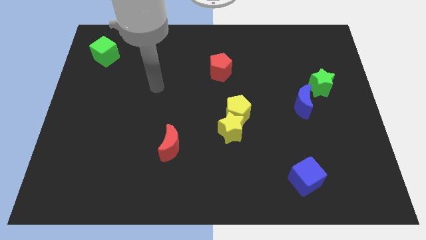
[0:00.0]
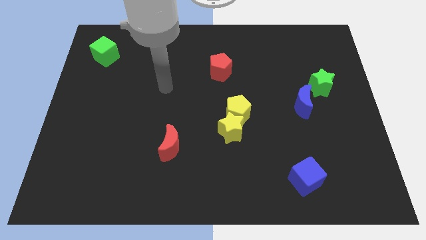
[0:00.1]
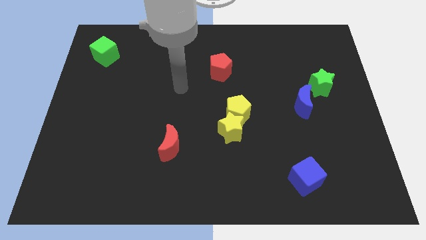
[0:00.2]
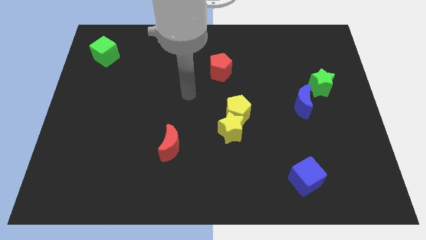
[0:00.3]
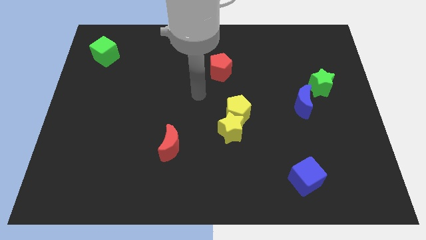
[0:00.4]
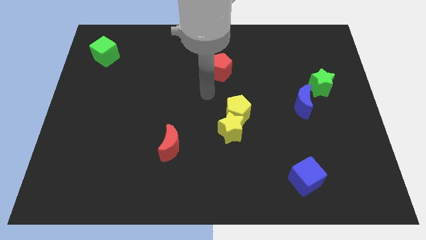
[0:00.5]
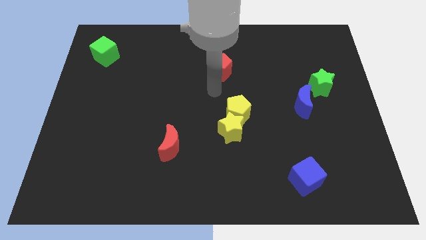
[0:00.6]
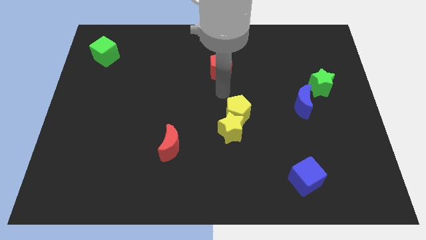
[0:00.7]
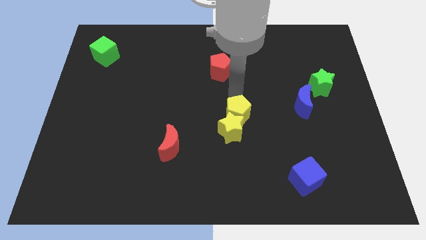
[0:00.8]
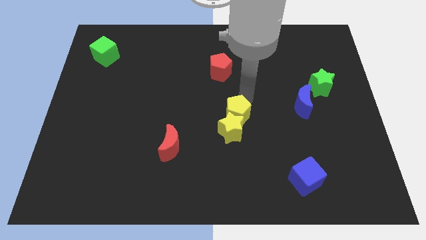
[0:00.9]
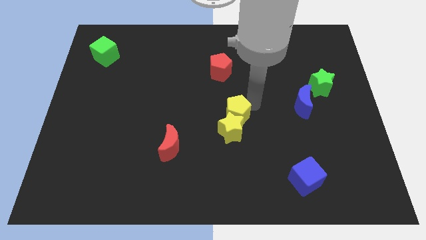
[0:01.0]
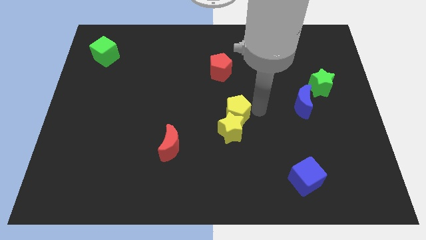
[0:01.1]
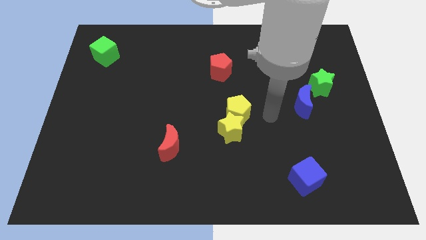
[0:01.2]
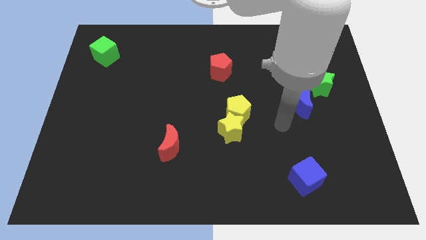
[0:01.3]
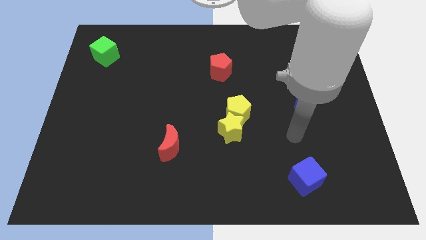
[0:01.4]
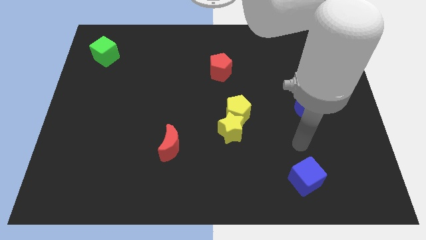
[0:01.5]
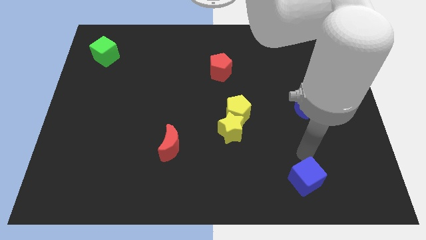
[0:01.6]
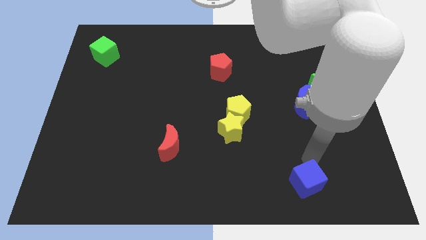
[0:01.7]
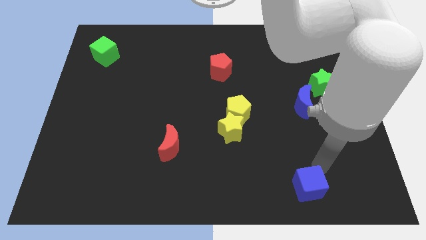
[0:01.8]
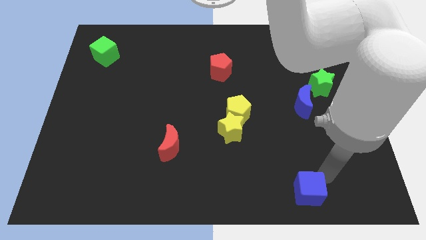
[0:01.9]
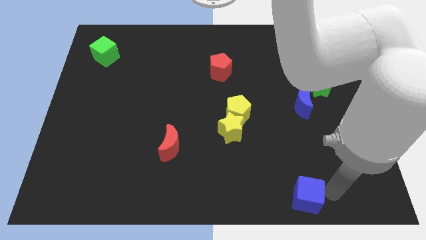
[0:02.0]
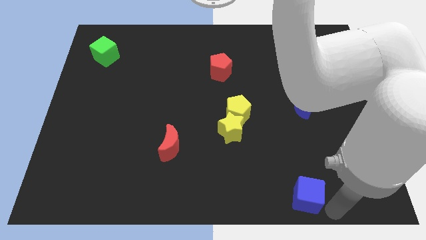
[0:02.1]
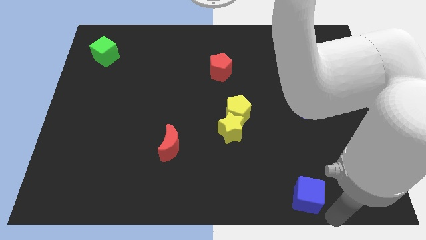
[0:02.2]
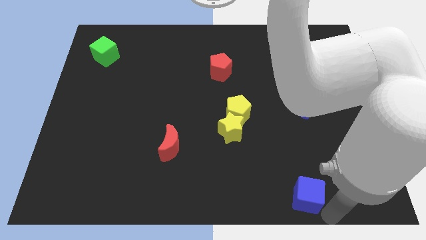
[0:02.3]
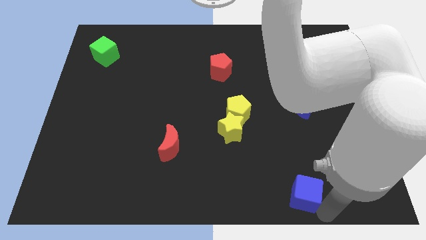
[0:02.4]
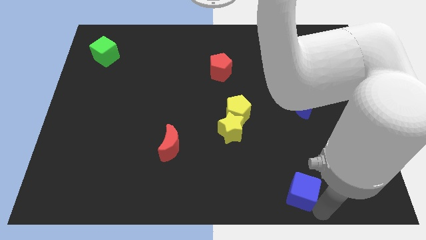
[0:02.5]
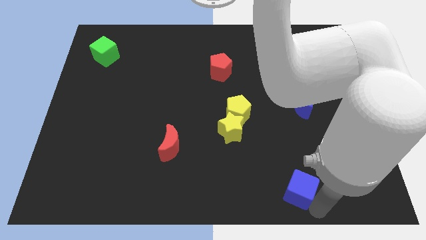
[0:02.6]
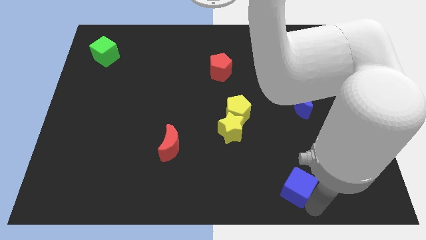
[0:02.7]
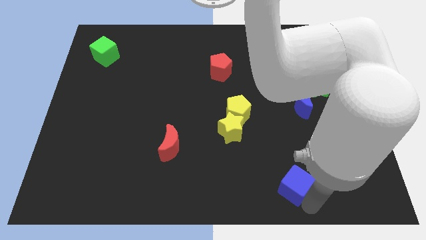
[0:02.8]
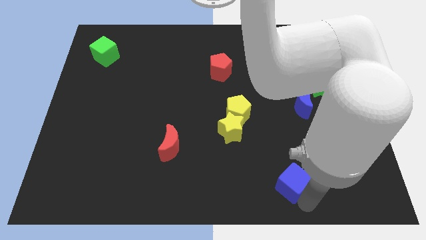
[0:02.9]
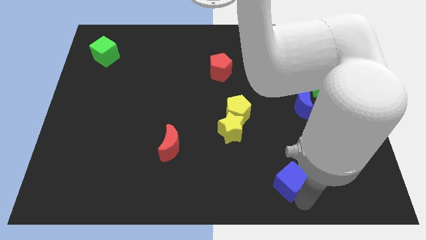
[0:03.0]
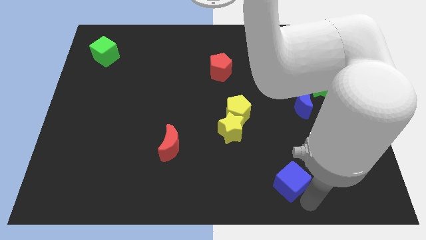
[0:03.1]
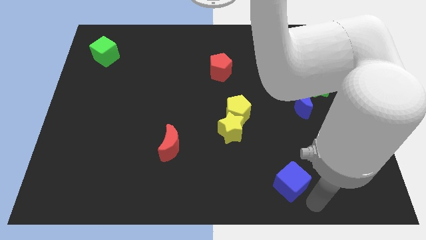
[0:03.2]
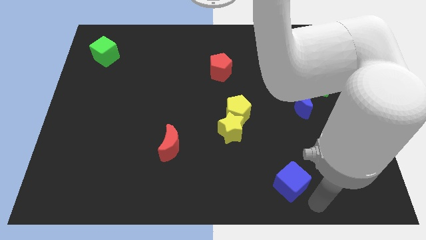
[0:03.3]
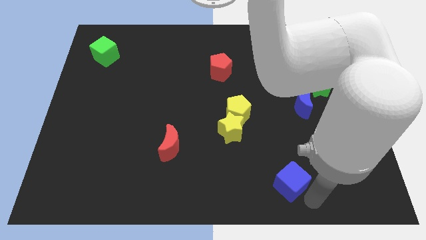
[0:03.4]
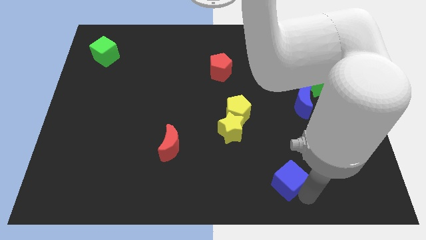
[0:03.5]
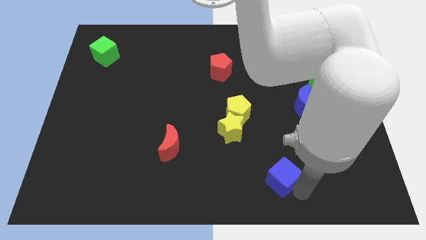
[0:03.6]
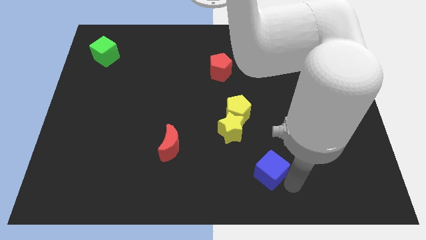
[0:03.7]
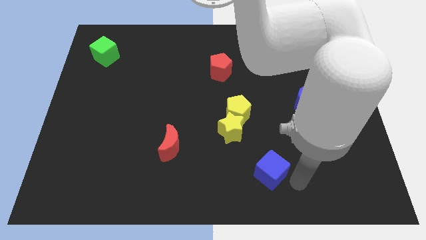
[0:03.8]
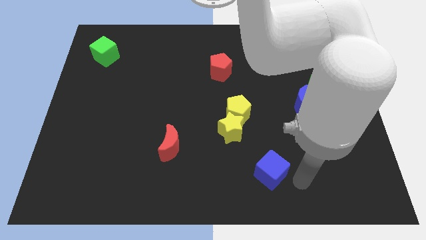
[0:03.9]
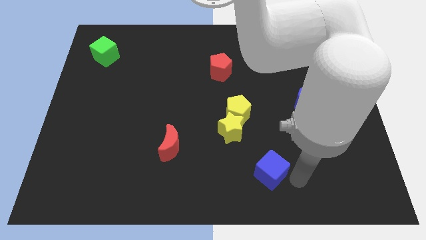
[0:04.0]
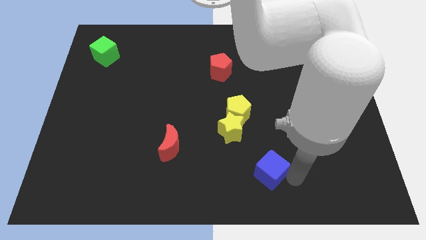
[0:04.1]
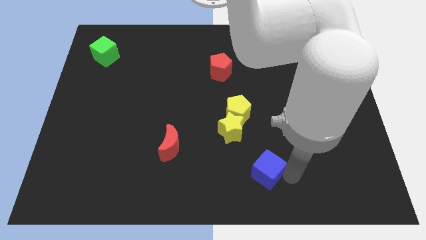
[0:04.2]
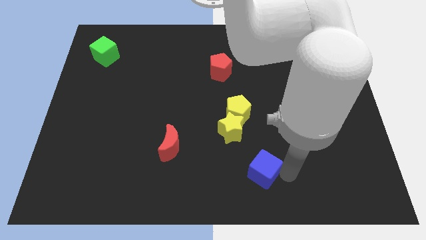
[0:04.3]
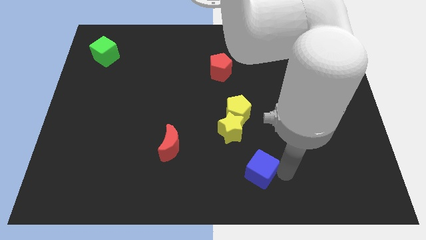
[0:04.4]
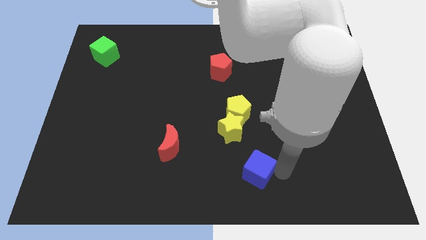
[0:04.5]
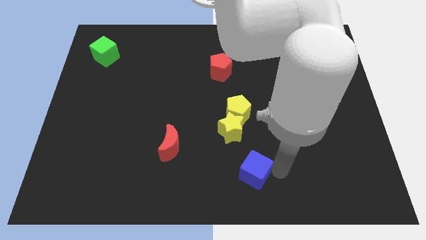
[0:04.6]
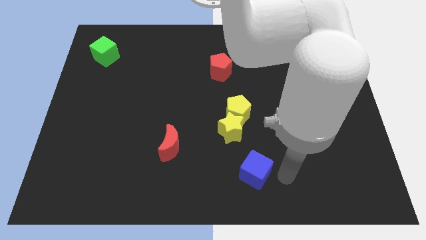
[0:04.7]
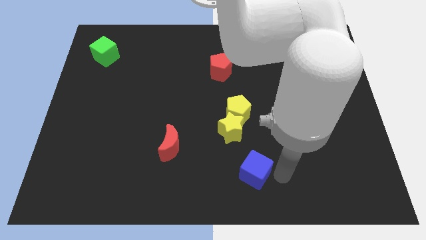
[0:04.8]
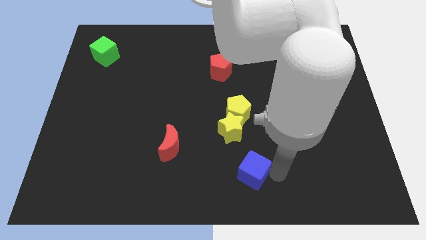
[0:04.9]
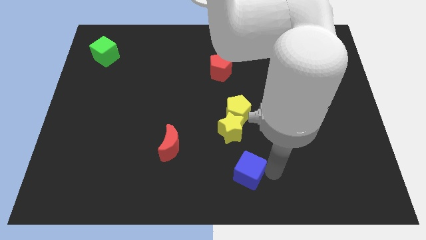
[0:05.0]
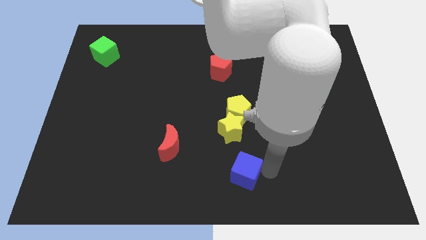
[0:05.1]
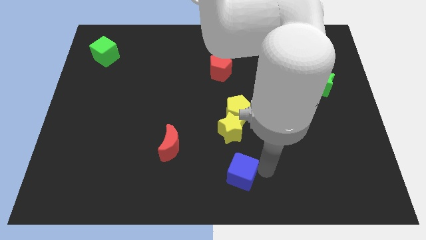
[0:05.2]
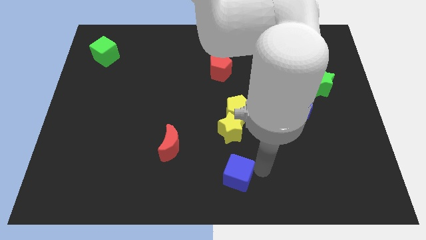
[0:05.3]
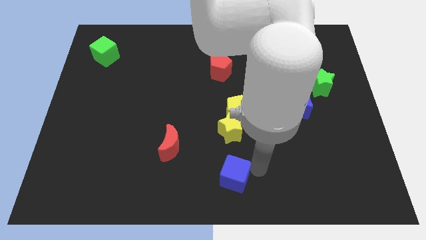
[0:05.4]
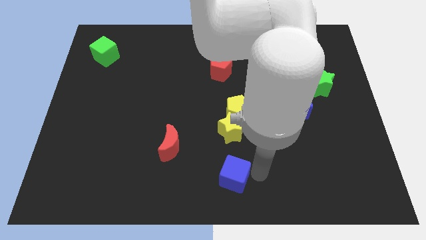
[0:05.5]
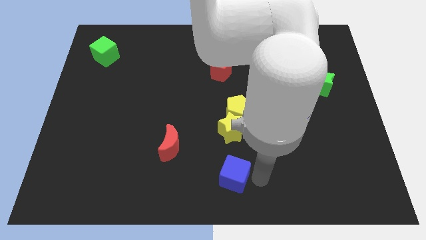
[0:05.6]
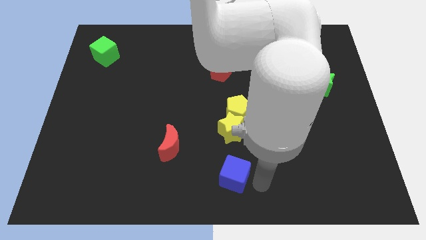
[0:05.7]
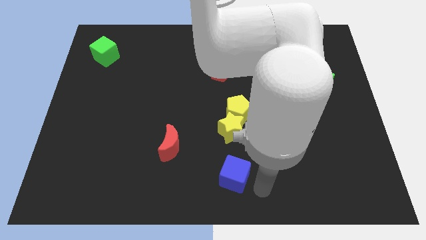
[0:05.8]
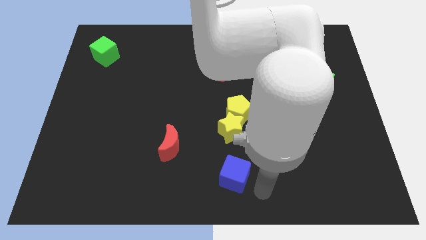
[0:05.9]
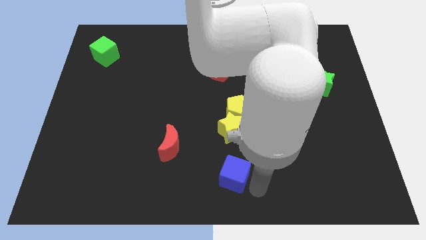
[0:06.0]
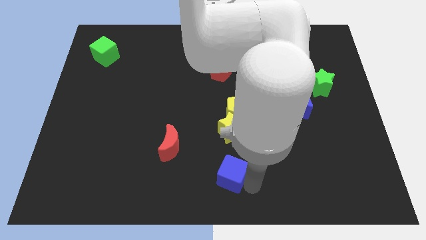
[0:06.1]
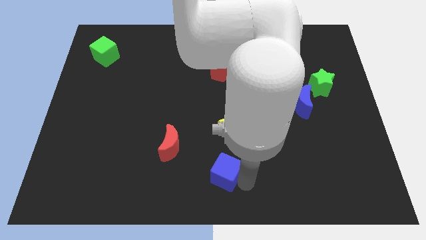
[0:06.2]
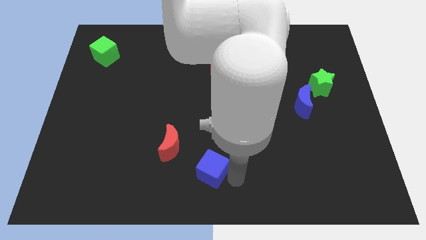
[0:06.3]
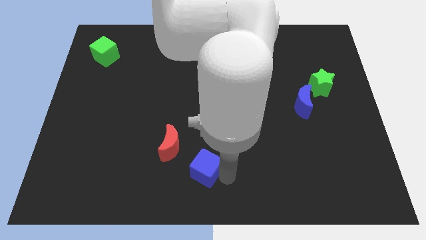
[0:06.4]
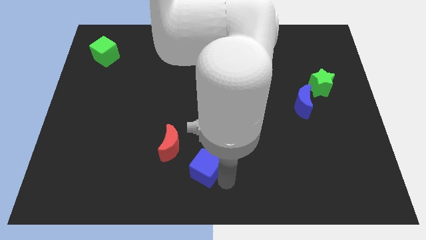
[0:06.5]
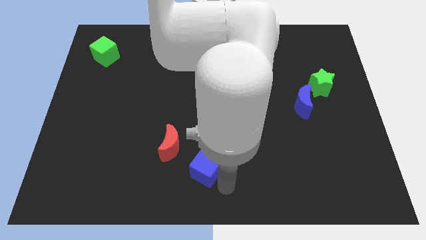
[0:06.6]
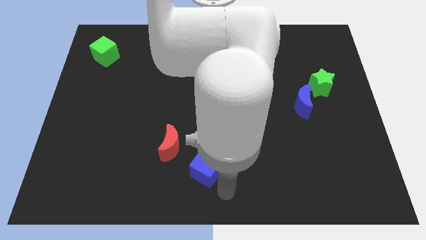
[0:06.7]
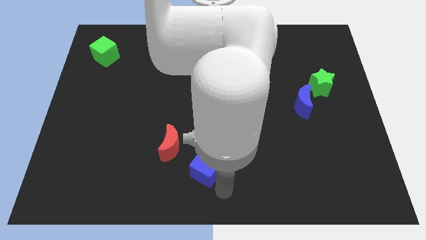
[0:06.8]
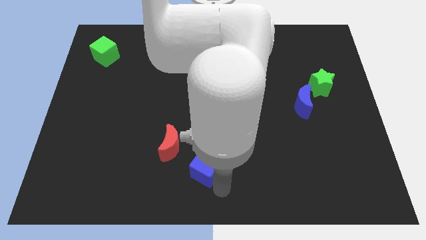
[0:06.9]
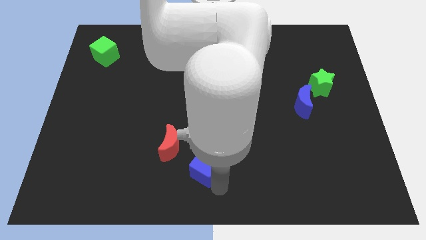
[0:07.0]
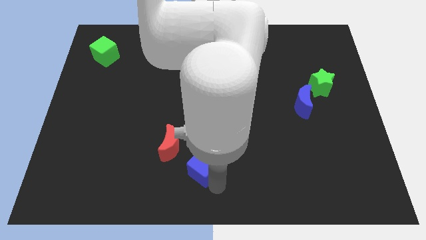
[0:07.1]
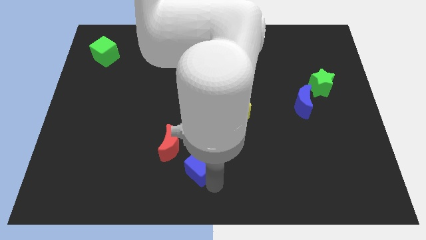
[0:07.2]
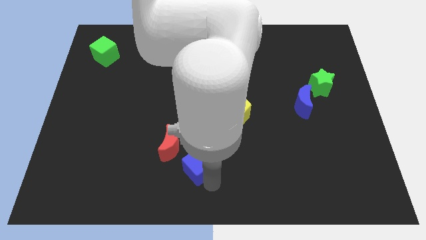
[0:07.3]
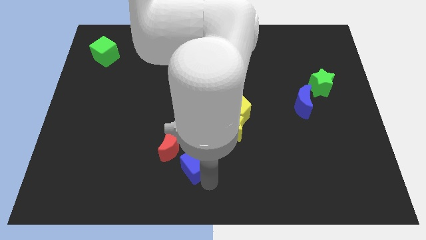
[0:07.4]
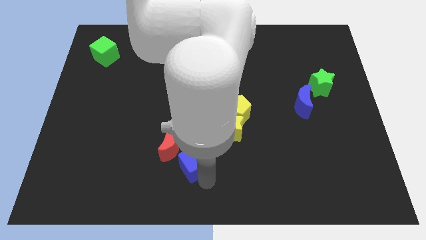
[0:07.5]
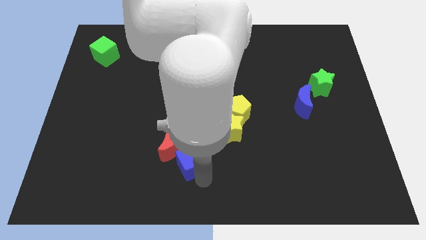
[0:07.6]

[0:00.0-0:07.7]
move the blue cube to the red moon

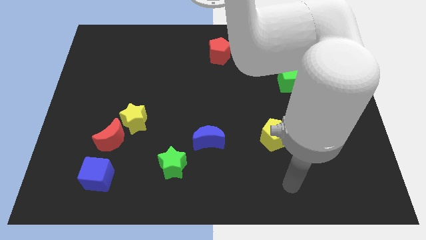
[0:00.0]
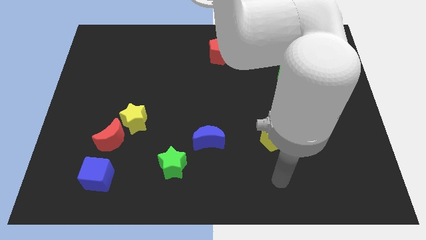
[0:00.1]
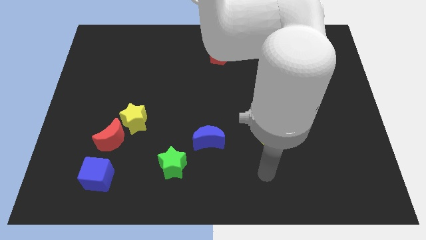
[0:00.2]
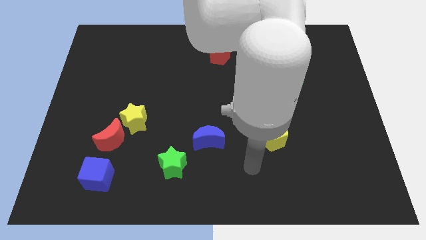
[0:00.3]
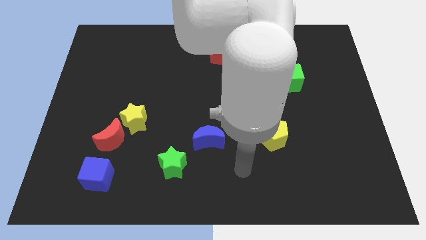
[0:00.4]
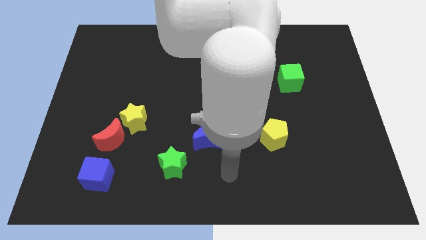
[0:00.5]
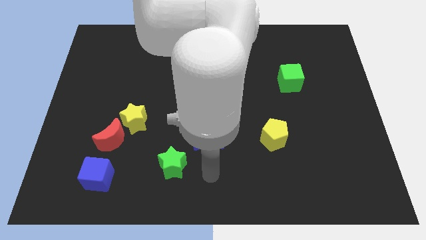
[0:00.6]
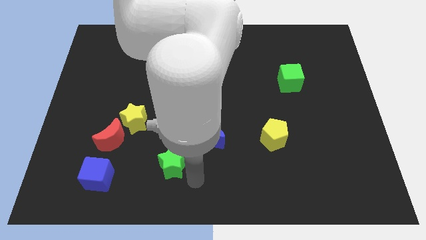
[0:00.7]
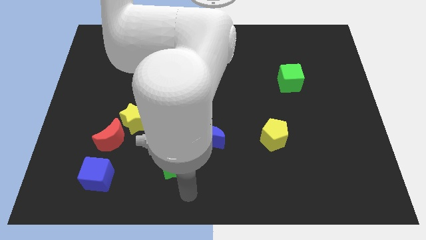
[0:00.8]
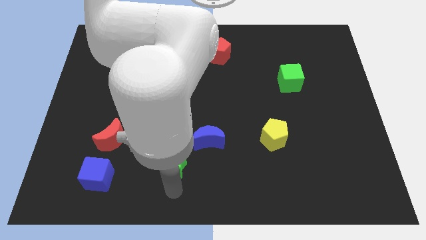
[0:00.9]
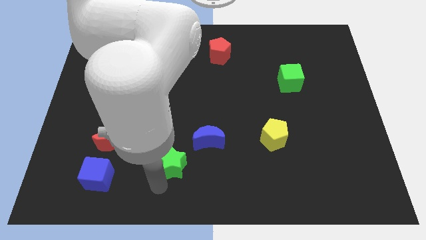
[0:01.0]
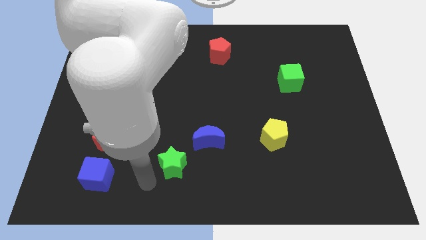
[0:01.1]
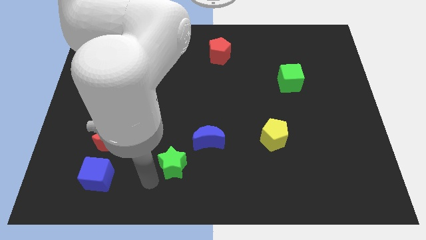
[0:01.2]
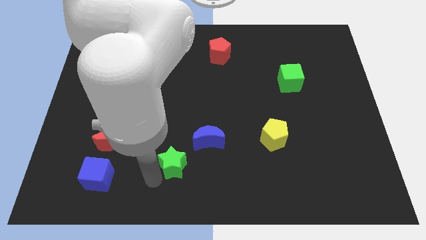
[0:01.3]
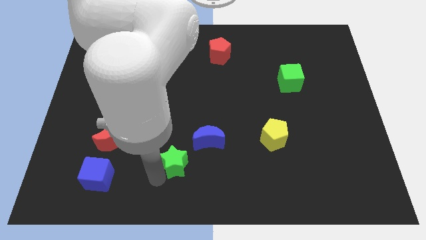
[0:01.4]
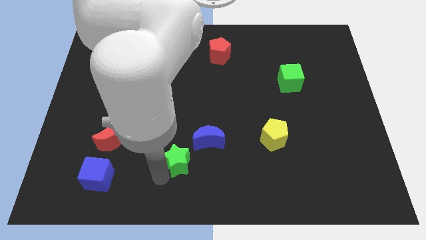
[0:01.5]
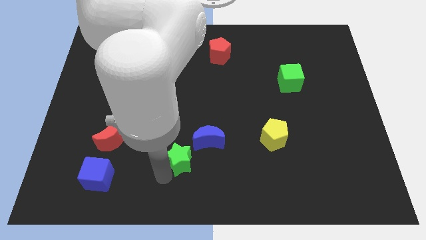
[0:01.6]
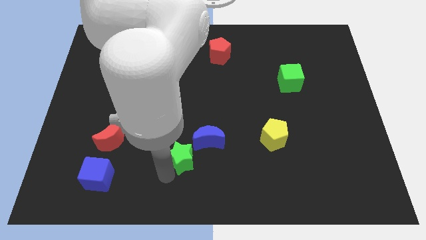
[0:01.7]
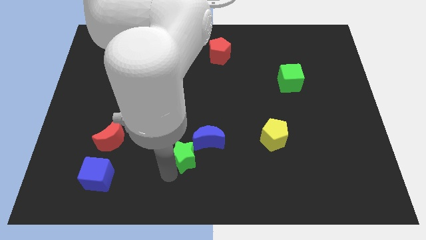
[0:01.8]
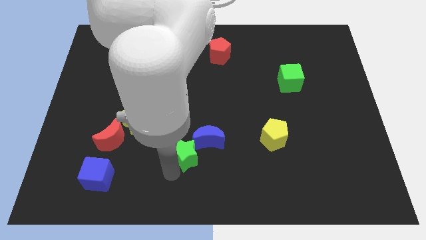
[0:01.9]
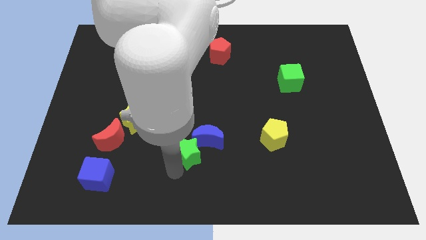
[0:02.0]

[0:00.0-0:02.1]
push the green star to the blue moon
